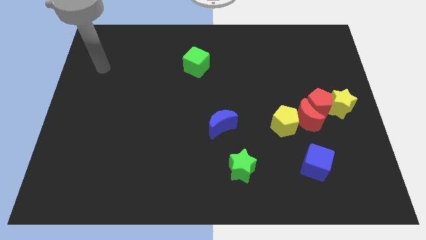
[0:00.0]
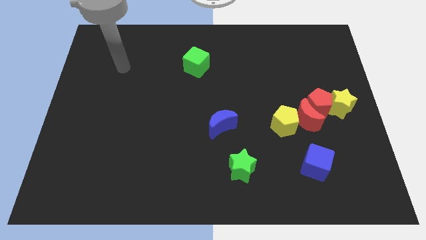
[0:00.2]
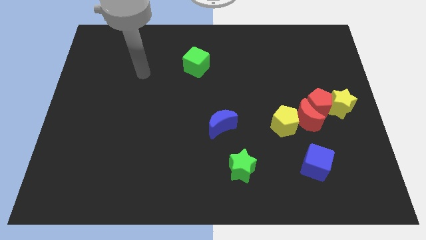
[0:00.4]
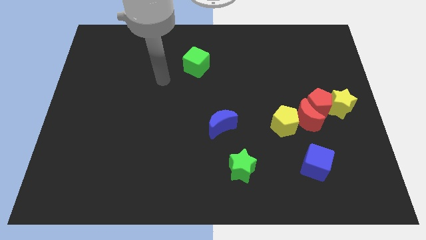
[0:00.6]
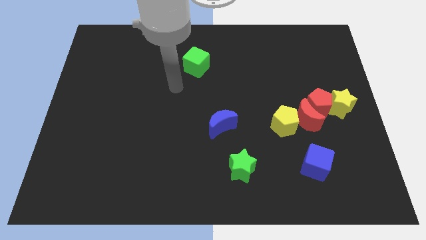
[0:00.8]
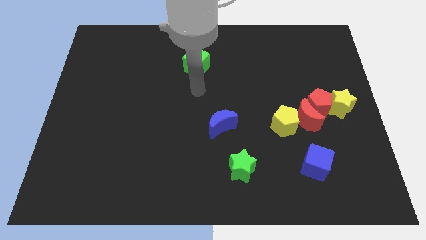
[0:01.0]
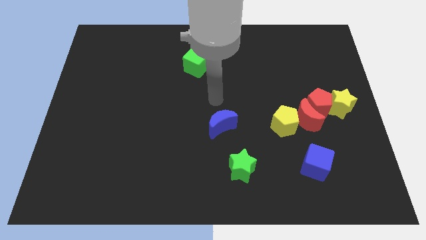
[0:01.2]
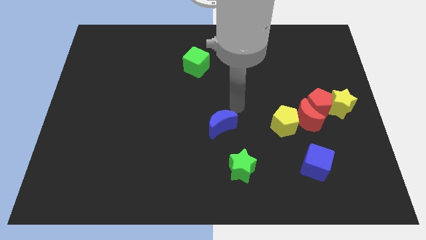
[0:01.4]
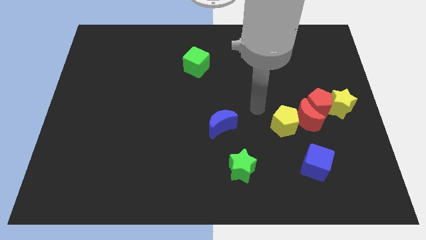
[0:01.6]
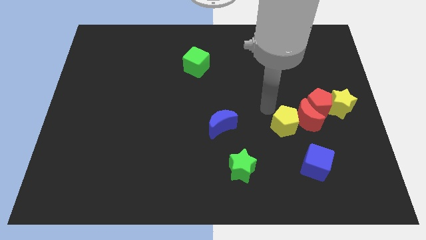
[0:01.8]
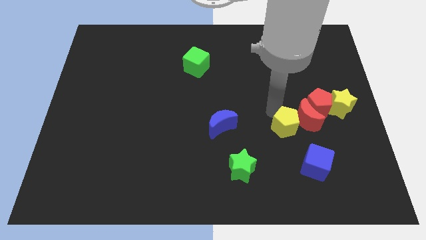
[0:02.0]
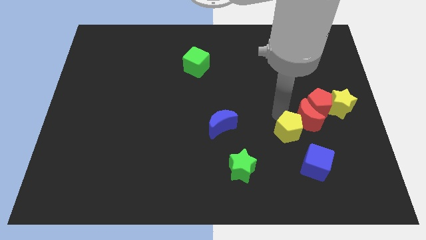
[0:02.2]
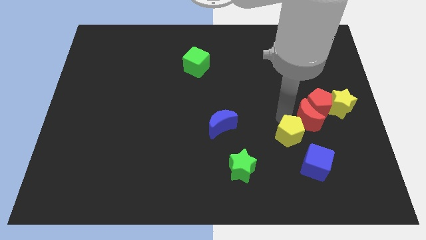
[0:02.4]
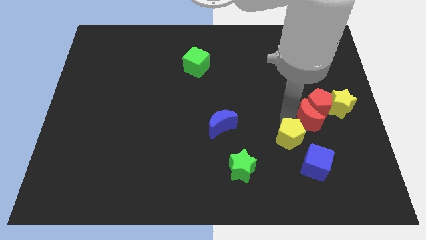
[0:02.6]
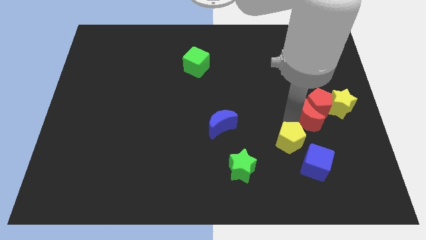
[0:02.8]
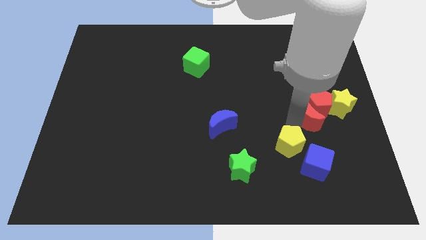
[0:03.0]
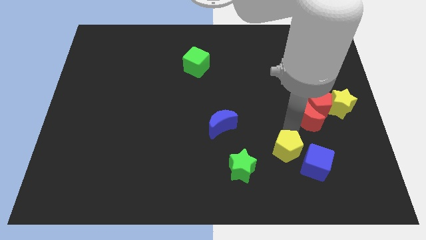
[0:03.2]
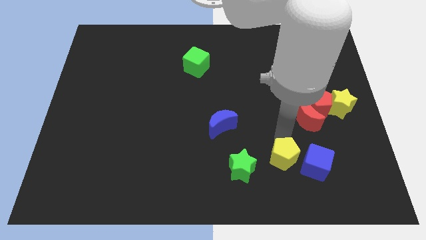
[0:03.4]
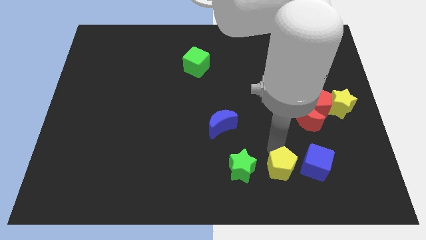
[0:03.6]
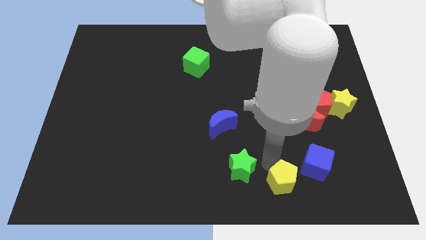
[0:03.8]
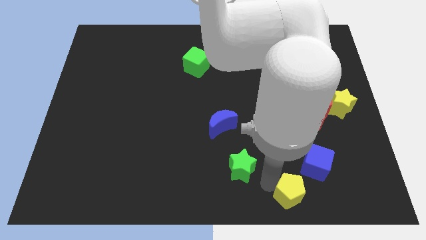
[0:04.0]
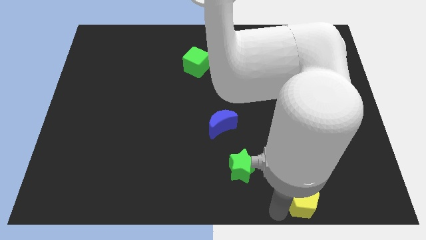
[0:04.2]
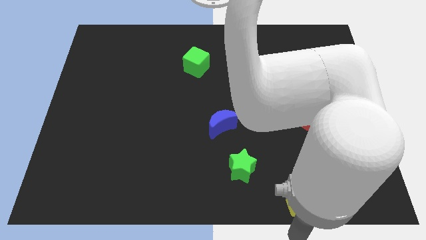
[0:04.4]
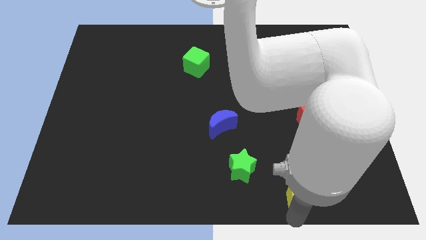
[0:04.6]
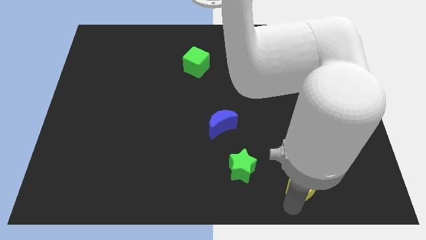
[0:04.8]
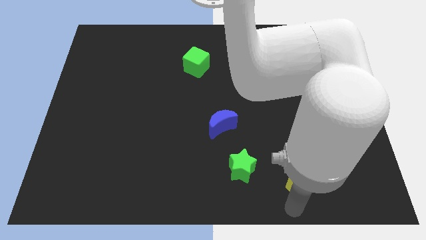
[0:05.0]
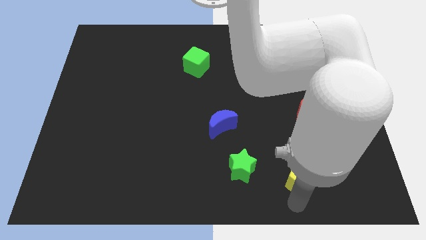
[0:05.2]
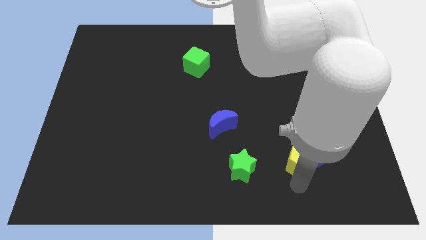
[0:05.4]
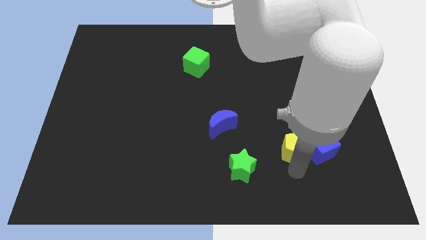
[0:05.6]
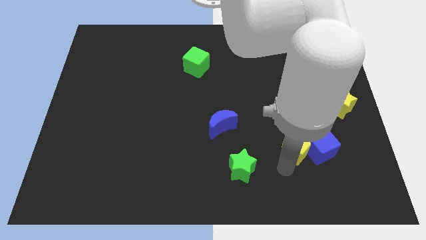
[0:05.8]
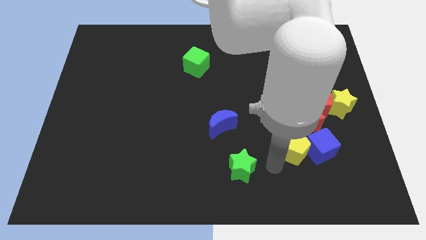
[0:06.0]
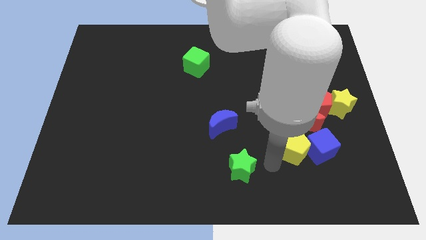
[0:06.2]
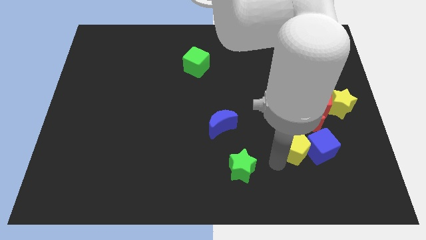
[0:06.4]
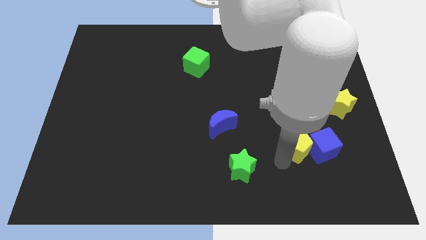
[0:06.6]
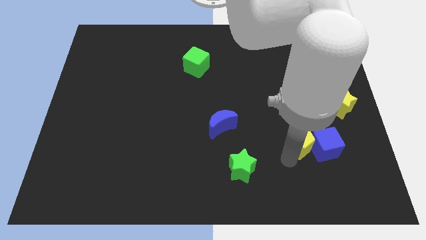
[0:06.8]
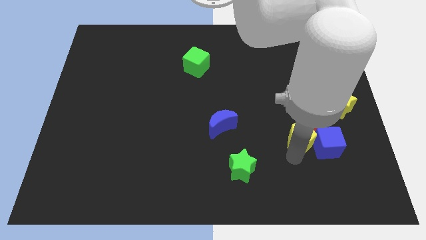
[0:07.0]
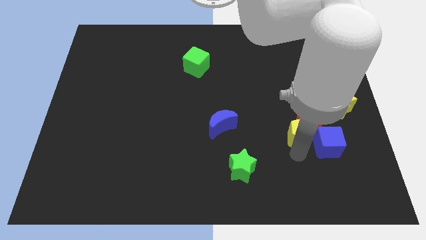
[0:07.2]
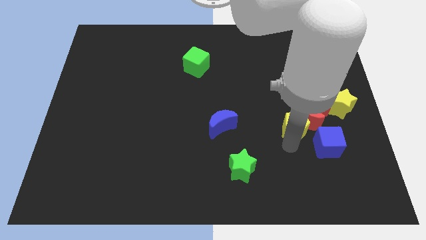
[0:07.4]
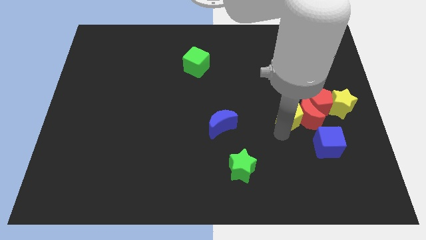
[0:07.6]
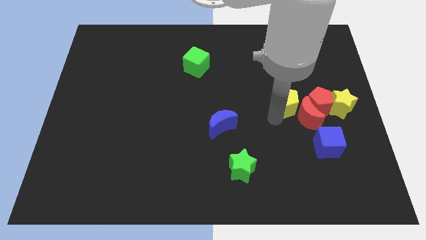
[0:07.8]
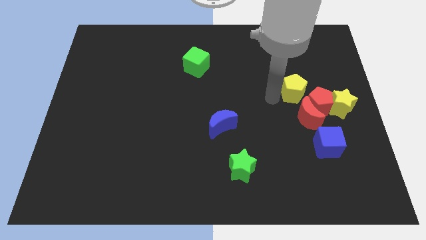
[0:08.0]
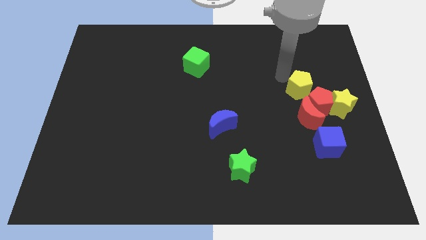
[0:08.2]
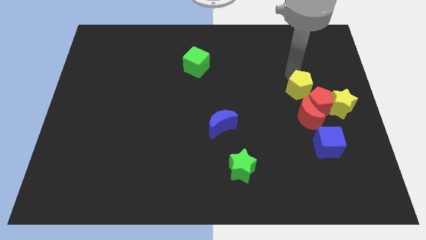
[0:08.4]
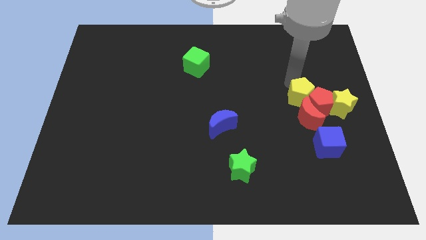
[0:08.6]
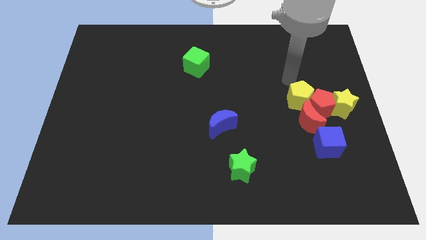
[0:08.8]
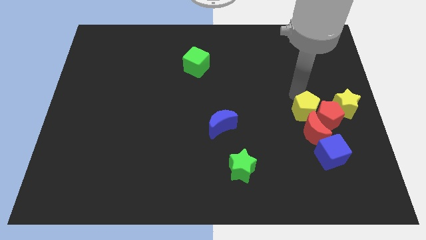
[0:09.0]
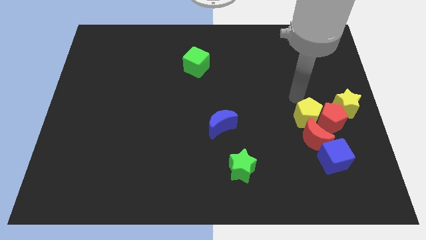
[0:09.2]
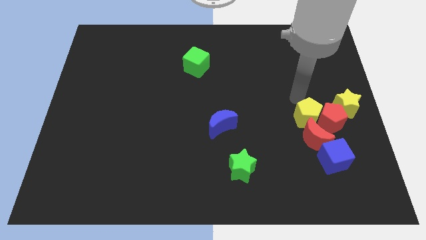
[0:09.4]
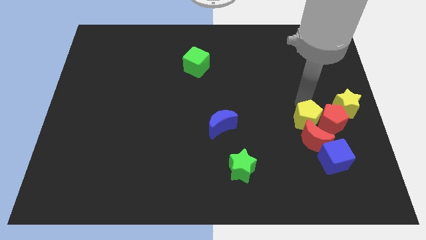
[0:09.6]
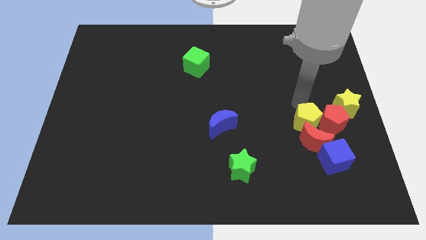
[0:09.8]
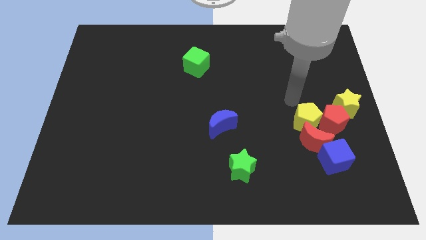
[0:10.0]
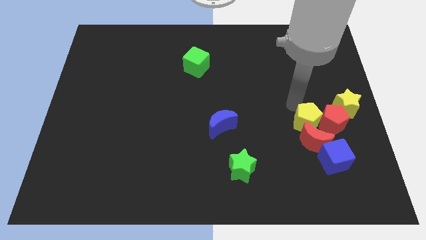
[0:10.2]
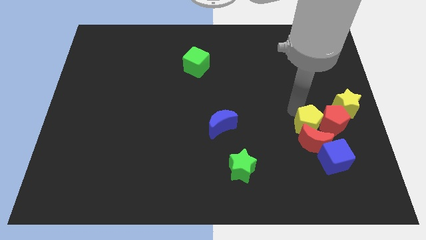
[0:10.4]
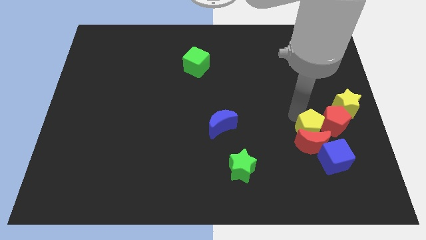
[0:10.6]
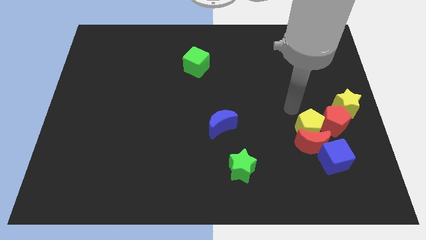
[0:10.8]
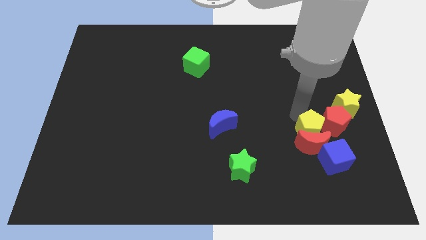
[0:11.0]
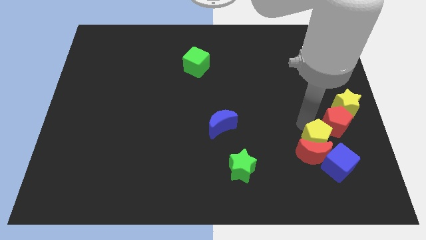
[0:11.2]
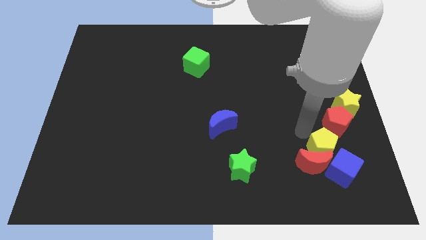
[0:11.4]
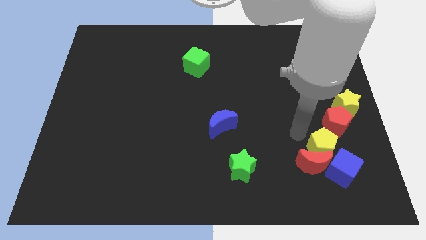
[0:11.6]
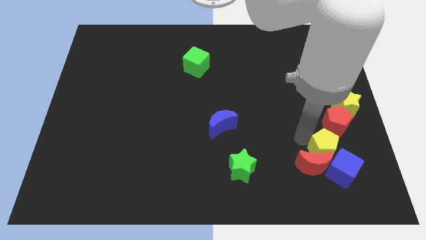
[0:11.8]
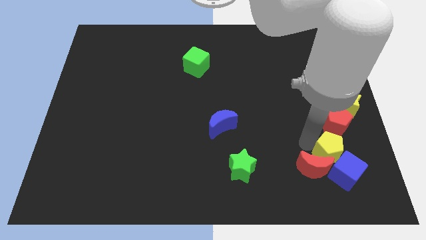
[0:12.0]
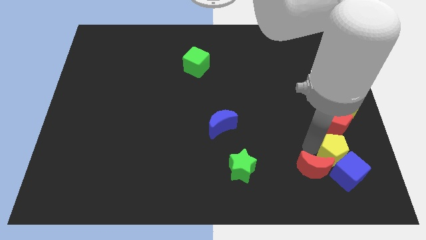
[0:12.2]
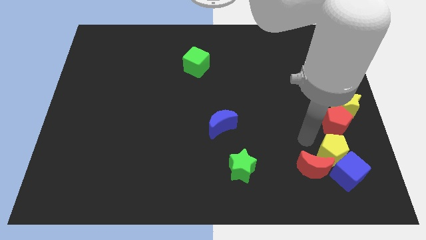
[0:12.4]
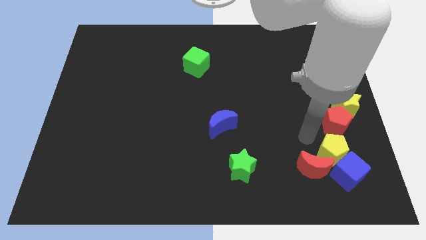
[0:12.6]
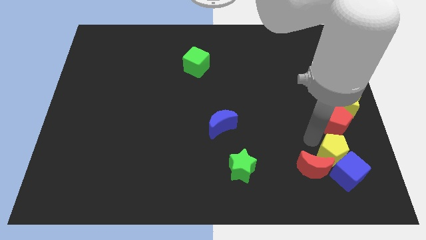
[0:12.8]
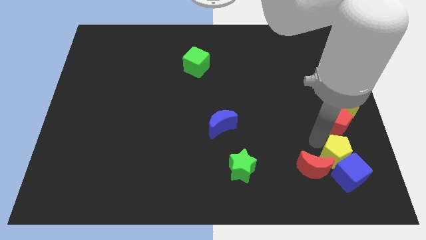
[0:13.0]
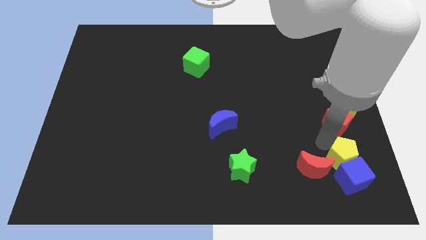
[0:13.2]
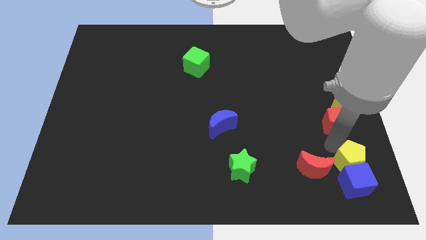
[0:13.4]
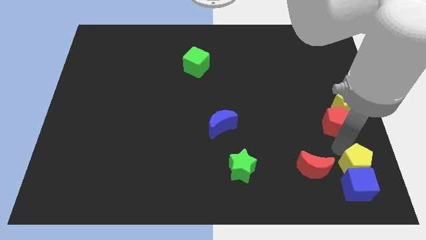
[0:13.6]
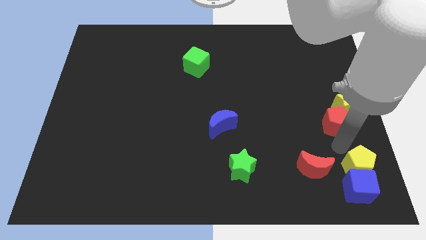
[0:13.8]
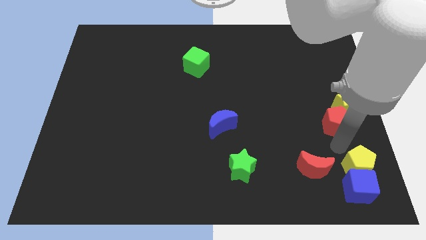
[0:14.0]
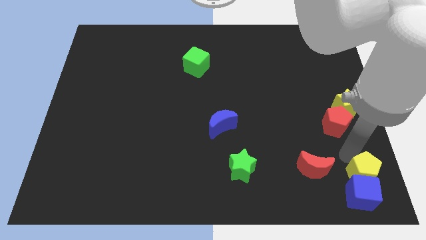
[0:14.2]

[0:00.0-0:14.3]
push the yellow pentagon to the bottom right of the board
